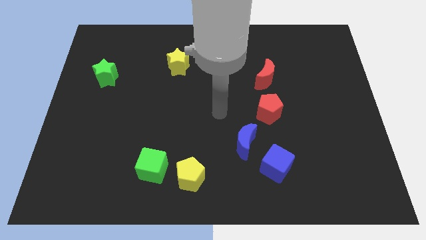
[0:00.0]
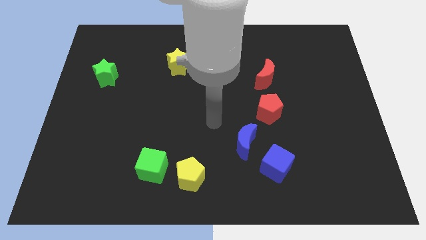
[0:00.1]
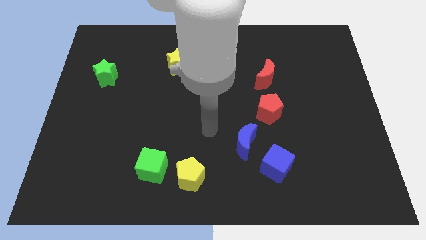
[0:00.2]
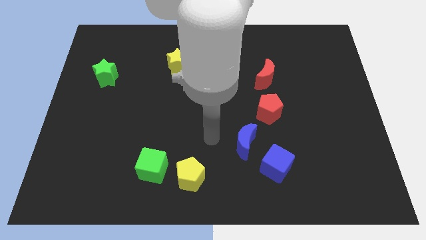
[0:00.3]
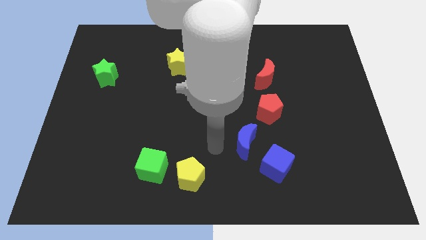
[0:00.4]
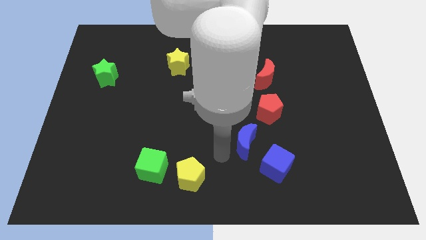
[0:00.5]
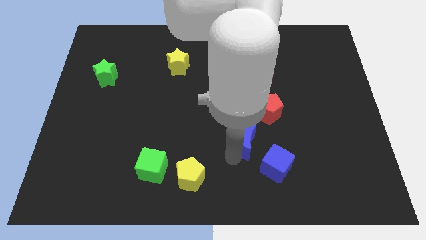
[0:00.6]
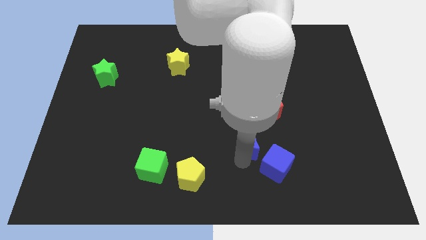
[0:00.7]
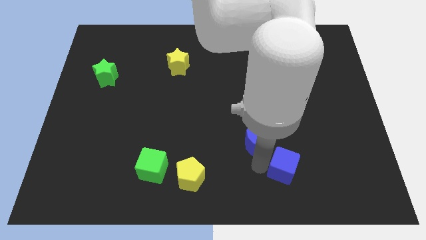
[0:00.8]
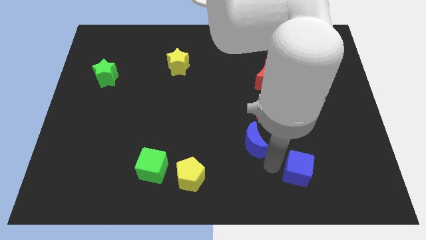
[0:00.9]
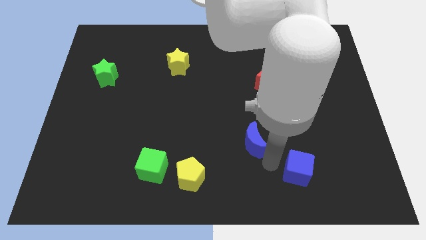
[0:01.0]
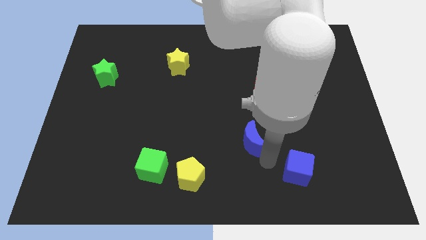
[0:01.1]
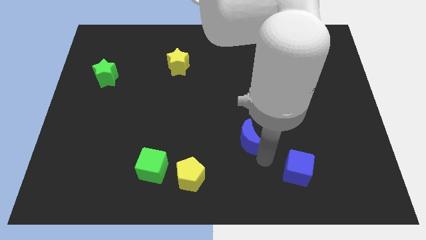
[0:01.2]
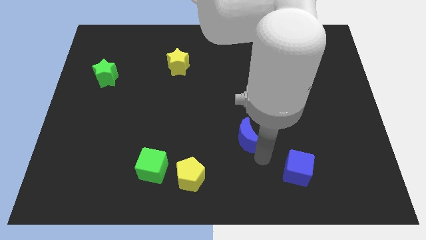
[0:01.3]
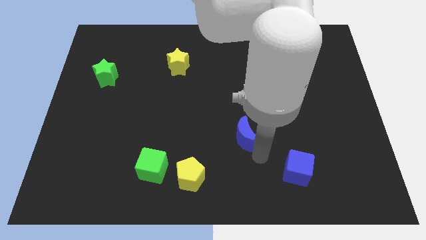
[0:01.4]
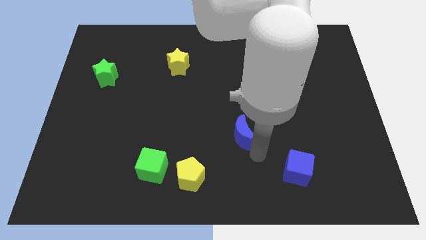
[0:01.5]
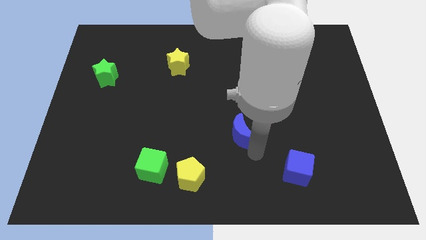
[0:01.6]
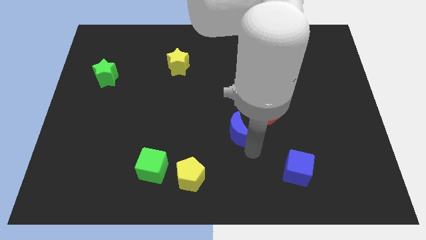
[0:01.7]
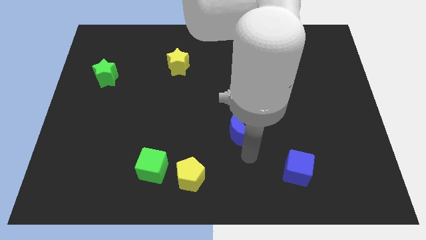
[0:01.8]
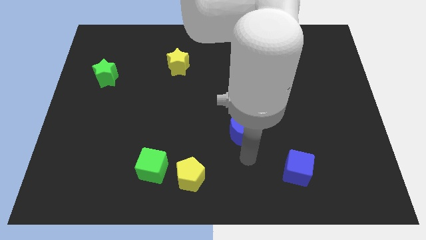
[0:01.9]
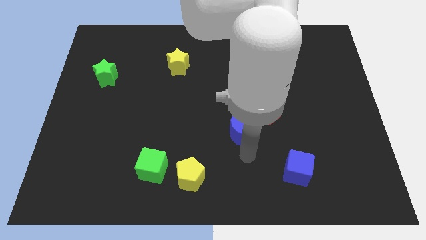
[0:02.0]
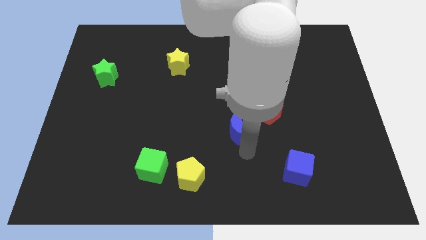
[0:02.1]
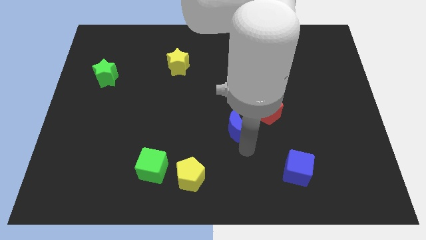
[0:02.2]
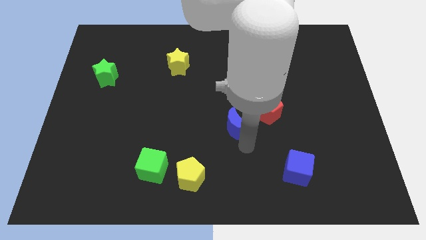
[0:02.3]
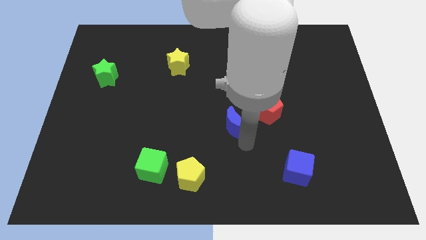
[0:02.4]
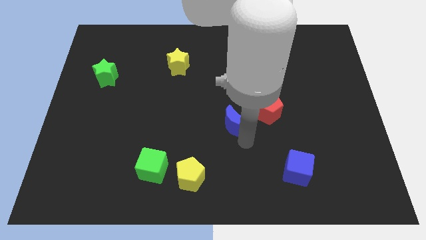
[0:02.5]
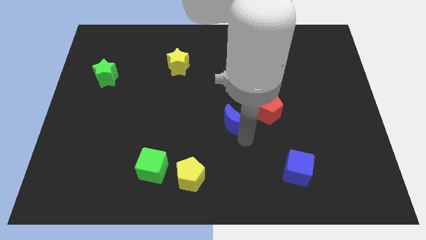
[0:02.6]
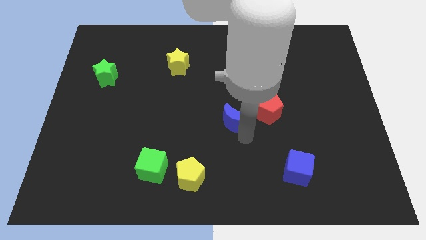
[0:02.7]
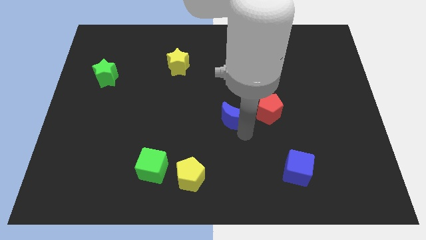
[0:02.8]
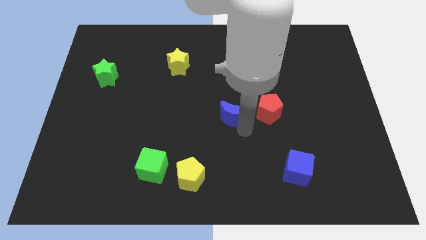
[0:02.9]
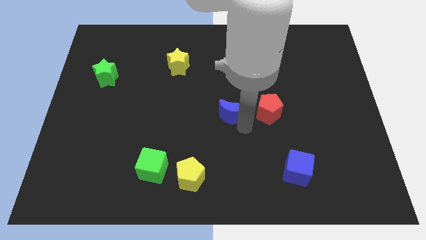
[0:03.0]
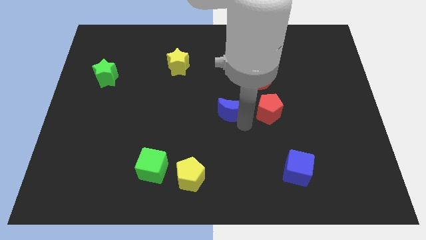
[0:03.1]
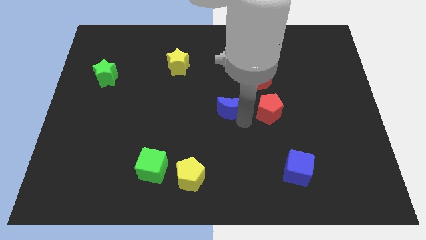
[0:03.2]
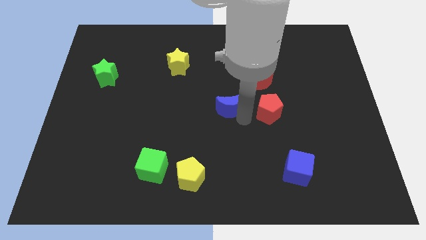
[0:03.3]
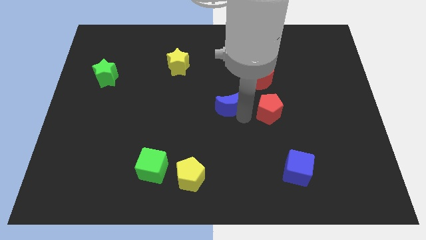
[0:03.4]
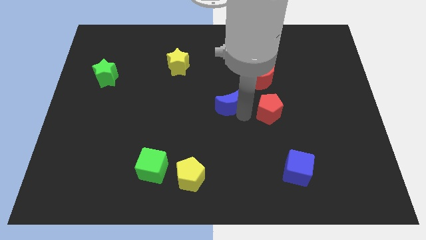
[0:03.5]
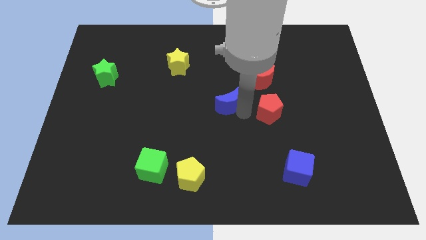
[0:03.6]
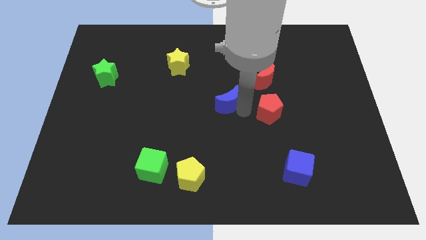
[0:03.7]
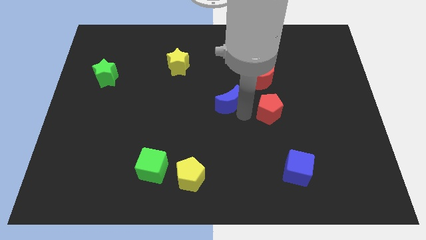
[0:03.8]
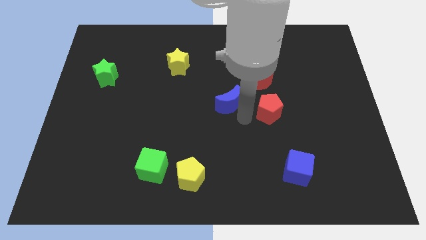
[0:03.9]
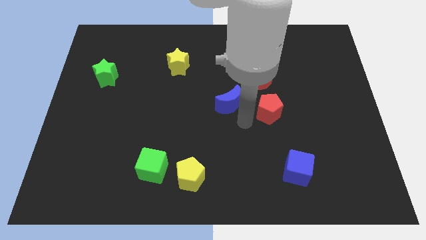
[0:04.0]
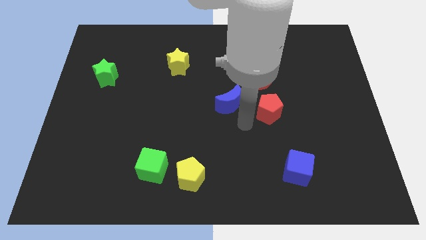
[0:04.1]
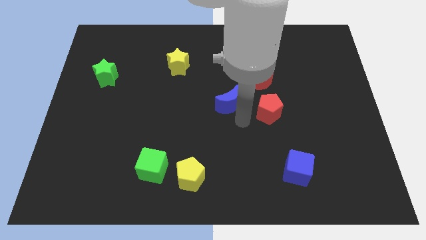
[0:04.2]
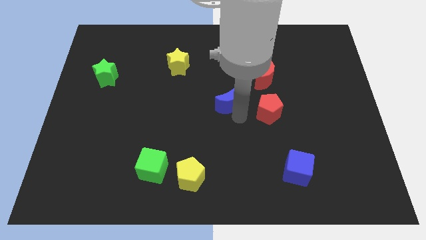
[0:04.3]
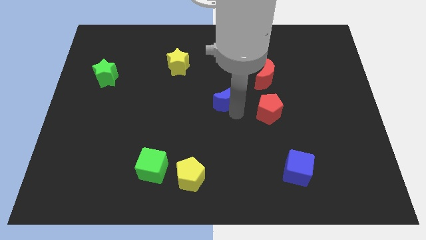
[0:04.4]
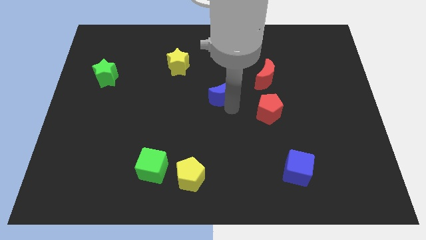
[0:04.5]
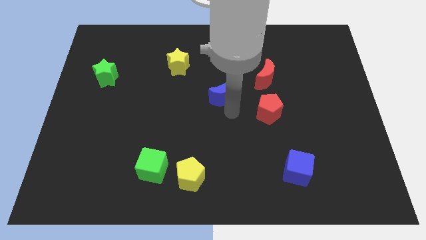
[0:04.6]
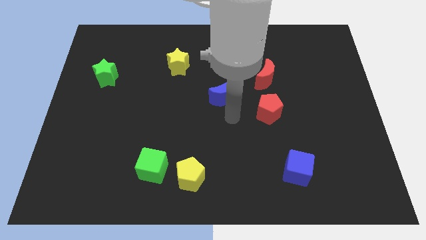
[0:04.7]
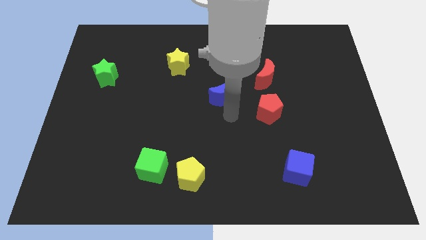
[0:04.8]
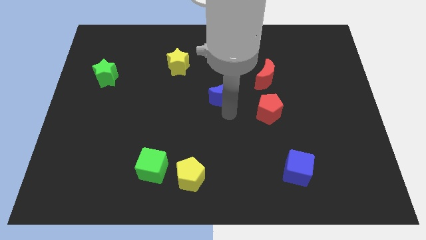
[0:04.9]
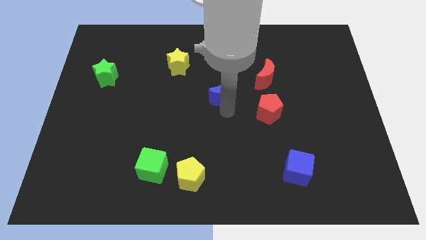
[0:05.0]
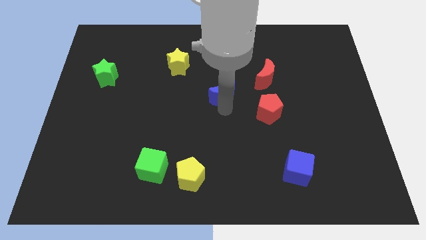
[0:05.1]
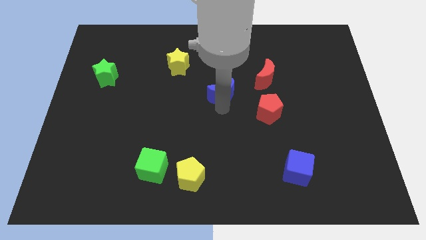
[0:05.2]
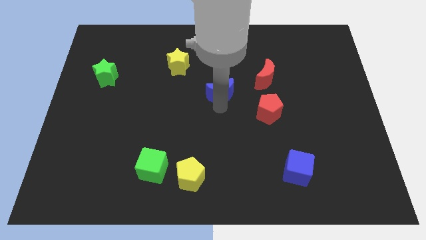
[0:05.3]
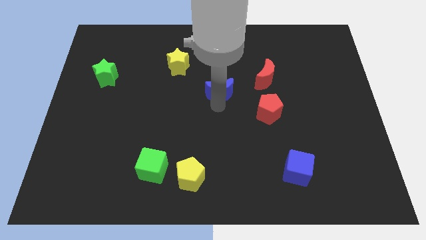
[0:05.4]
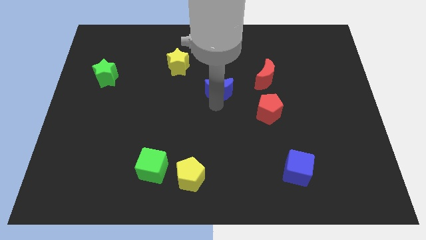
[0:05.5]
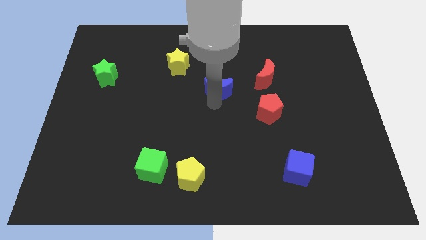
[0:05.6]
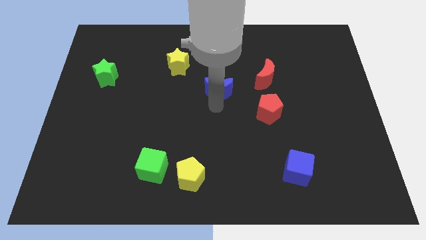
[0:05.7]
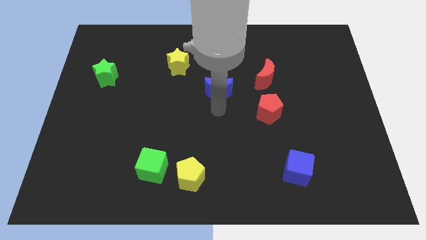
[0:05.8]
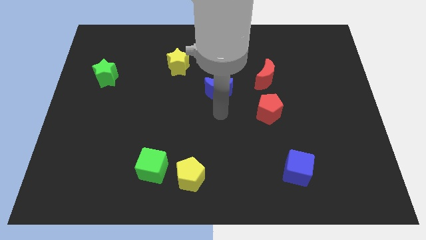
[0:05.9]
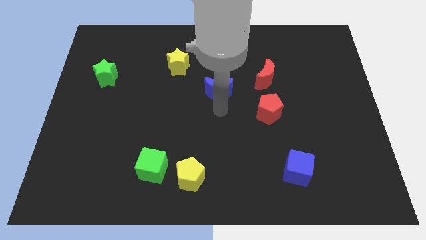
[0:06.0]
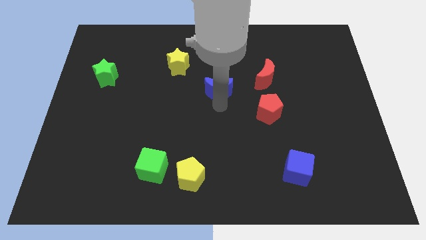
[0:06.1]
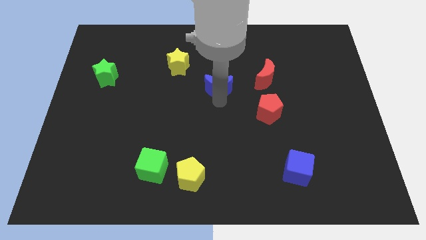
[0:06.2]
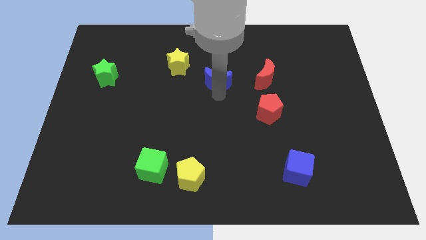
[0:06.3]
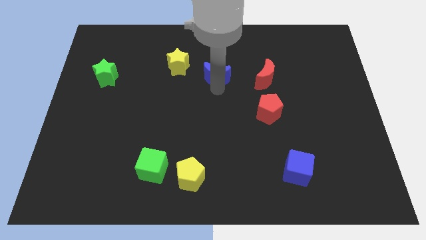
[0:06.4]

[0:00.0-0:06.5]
slide the blue moon to the right side of the yellow star

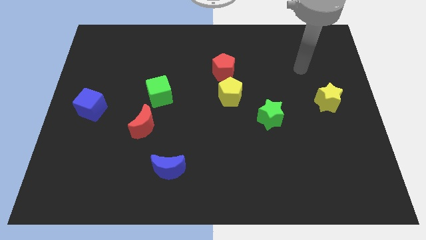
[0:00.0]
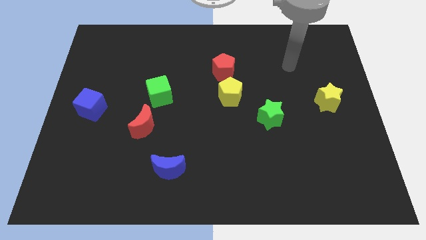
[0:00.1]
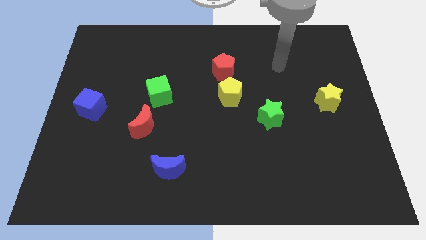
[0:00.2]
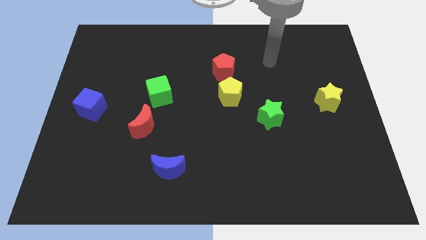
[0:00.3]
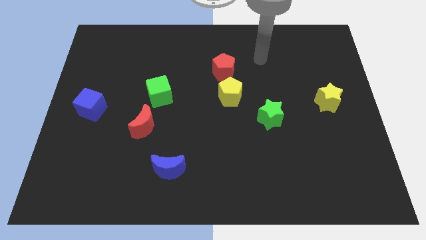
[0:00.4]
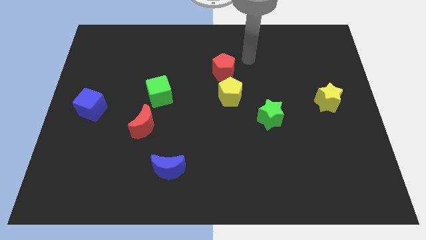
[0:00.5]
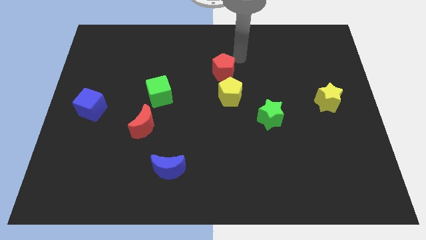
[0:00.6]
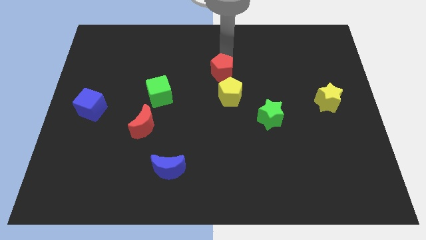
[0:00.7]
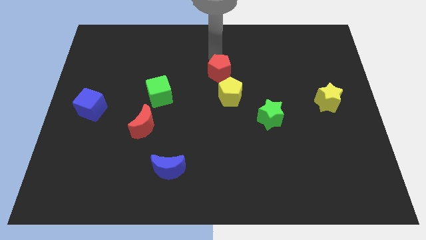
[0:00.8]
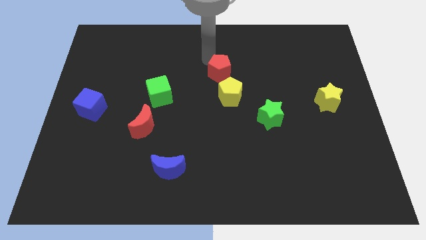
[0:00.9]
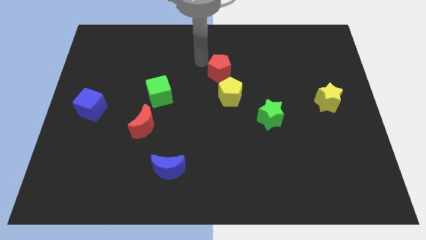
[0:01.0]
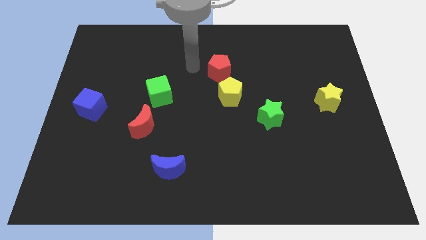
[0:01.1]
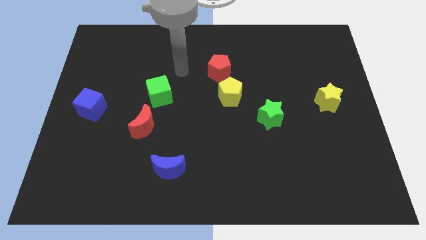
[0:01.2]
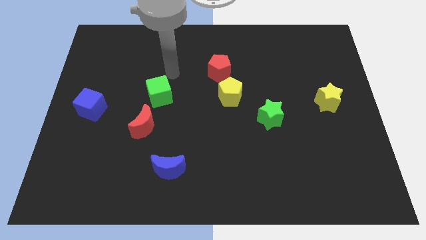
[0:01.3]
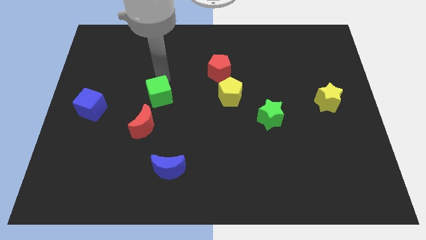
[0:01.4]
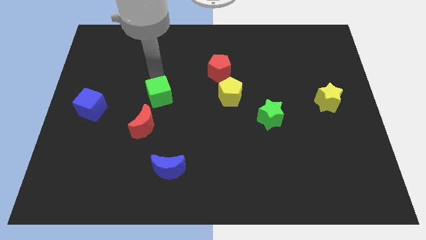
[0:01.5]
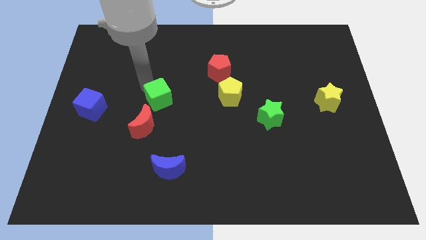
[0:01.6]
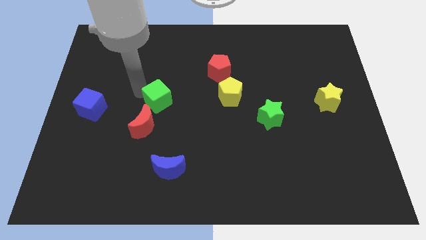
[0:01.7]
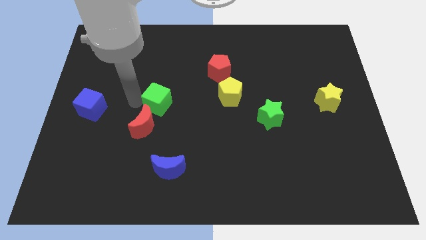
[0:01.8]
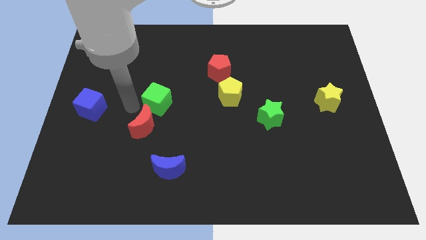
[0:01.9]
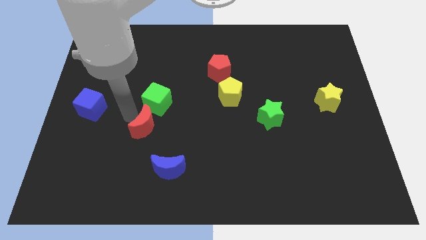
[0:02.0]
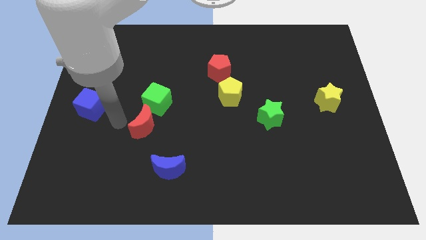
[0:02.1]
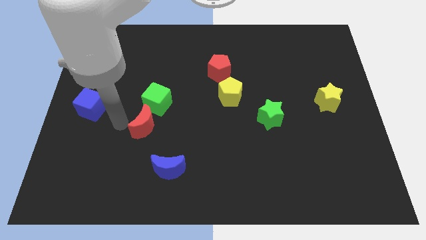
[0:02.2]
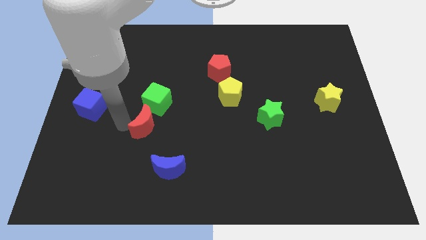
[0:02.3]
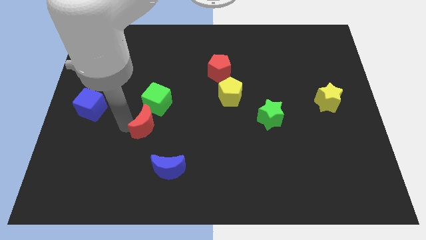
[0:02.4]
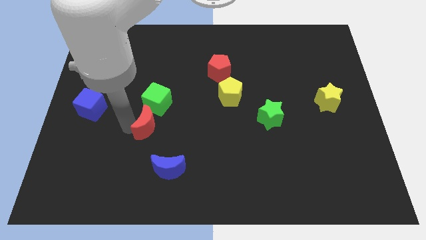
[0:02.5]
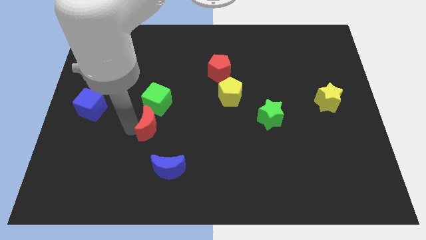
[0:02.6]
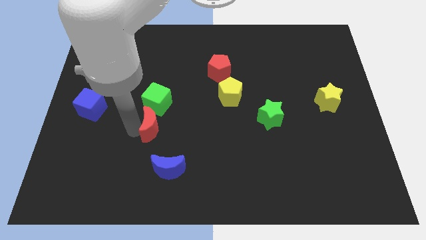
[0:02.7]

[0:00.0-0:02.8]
put the red moon to the top side of the blue moon
